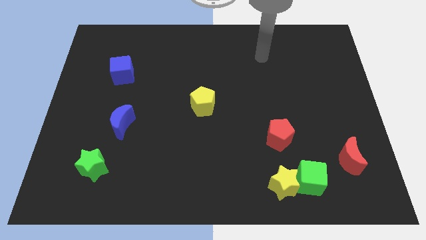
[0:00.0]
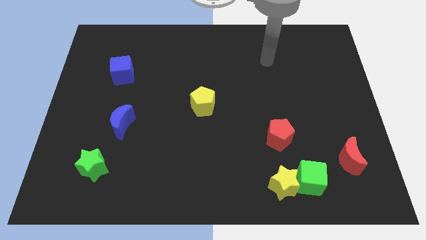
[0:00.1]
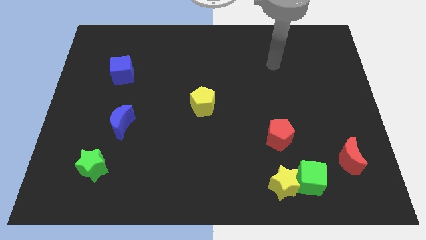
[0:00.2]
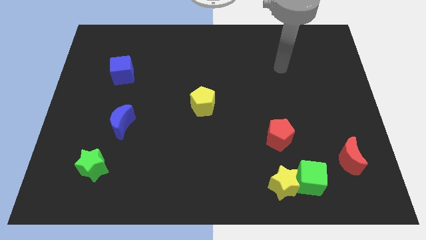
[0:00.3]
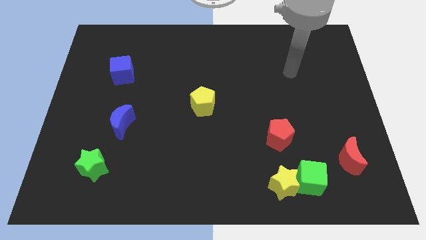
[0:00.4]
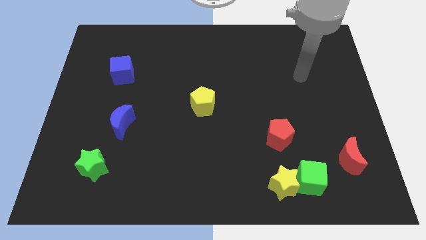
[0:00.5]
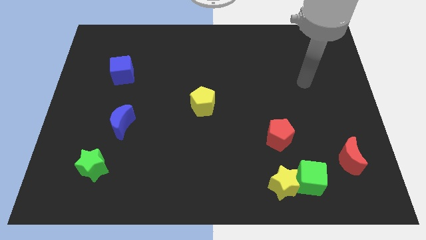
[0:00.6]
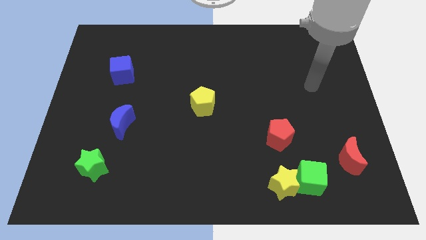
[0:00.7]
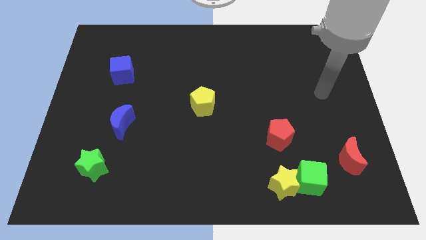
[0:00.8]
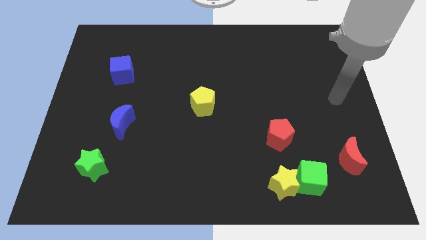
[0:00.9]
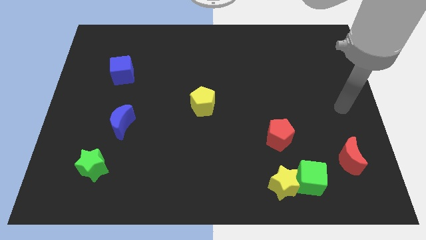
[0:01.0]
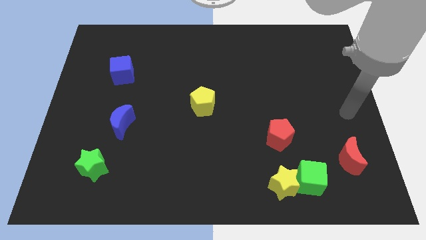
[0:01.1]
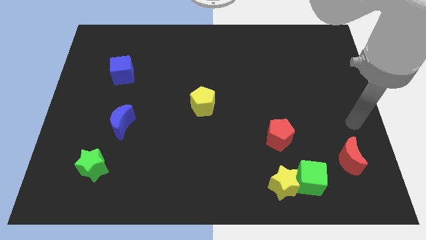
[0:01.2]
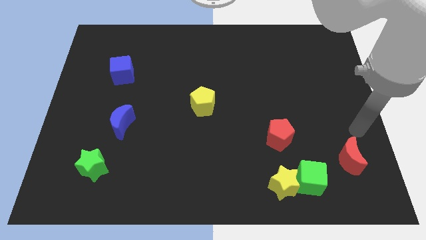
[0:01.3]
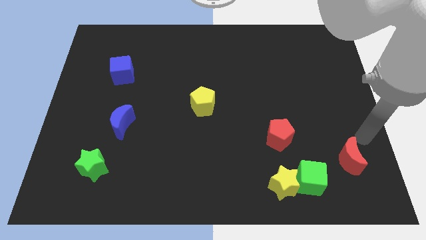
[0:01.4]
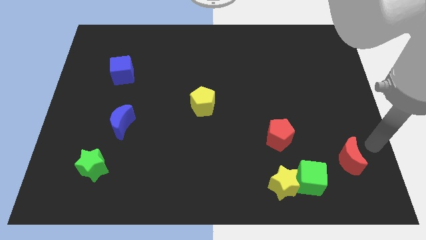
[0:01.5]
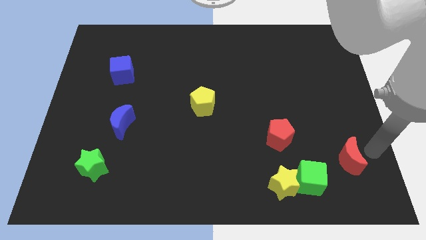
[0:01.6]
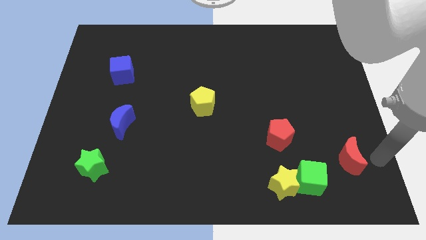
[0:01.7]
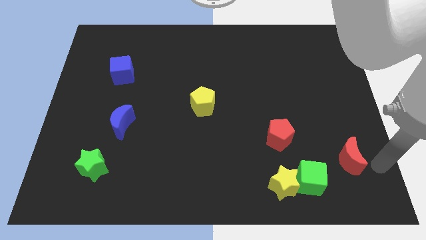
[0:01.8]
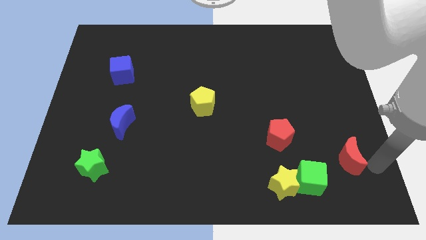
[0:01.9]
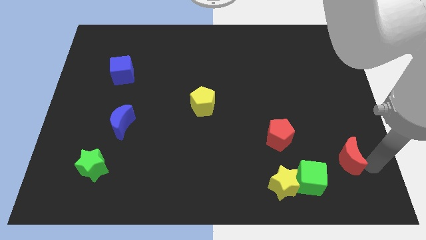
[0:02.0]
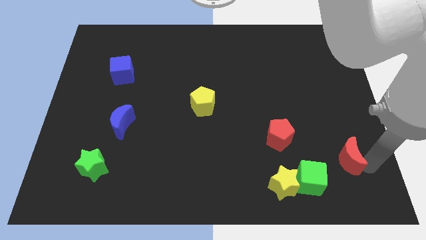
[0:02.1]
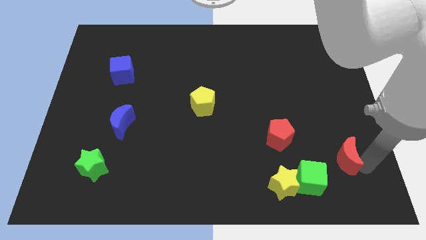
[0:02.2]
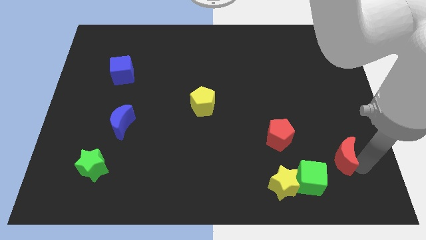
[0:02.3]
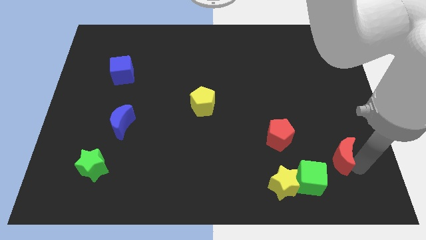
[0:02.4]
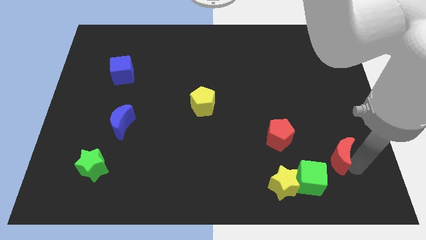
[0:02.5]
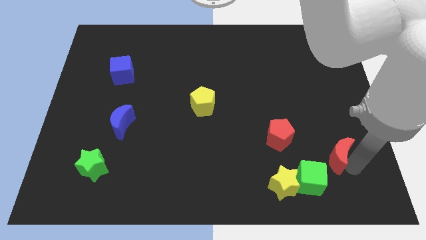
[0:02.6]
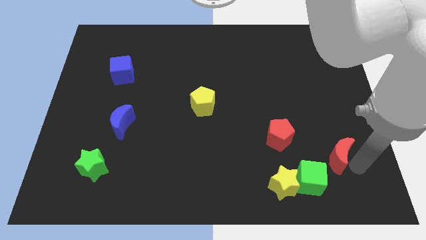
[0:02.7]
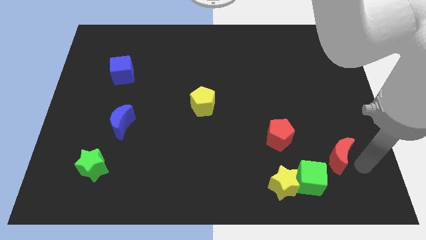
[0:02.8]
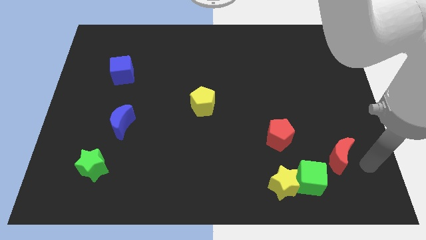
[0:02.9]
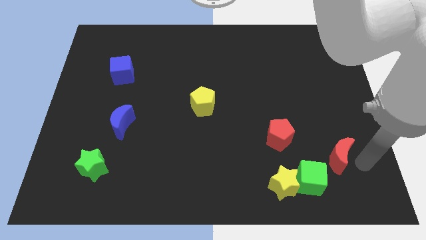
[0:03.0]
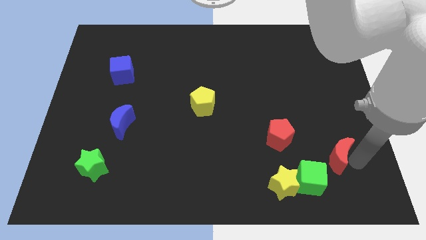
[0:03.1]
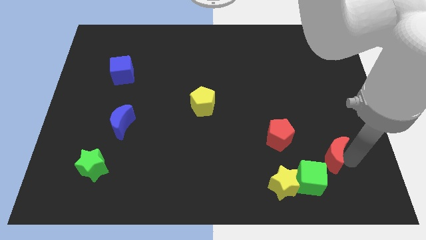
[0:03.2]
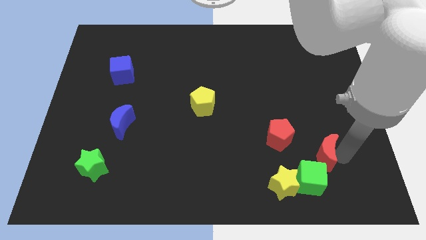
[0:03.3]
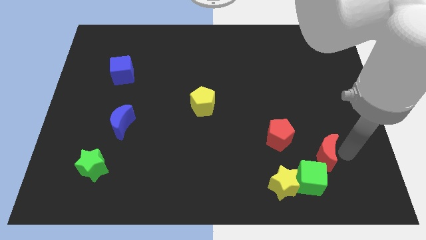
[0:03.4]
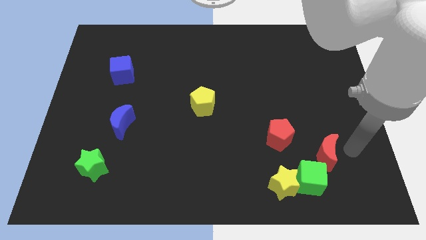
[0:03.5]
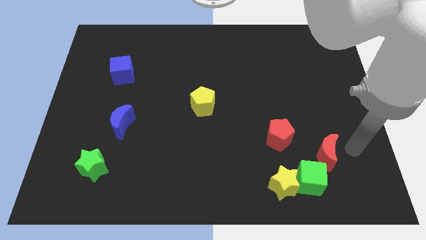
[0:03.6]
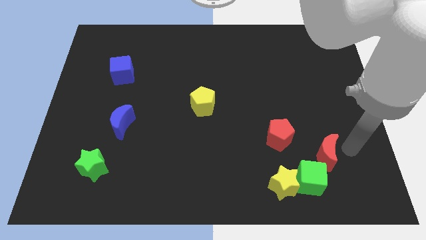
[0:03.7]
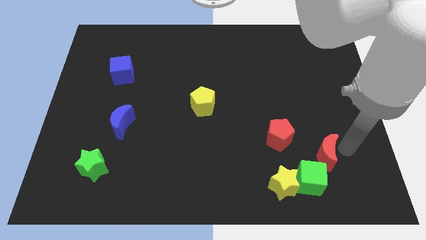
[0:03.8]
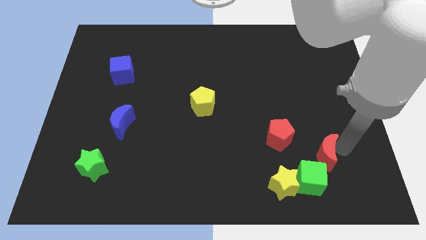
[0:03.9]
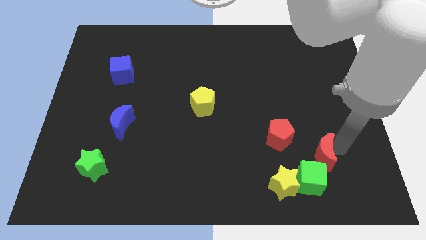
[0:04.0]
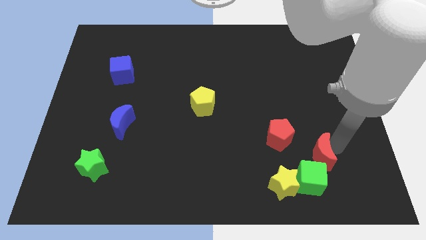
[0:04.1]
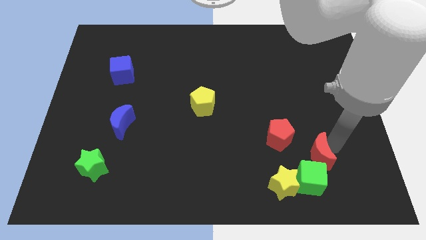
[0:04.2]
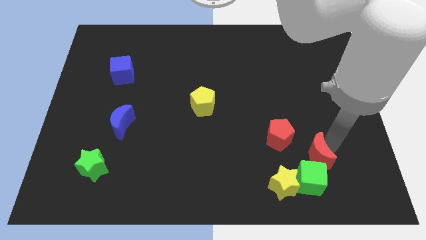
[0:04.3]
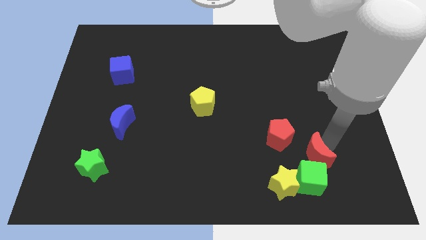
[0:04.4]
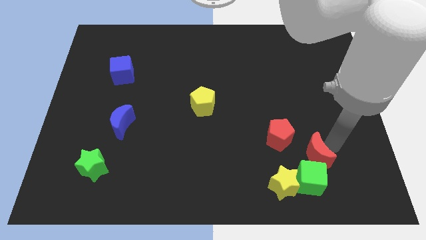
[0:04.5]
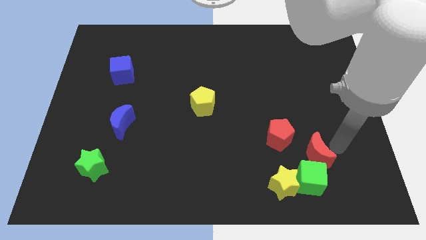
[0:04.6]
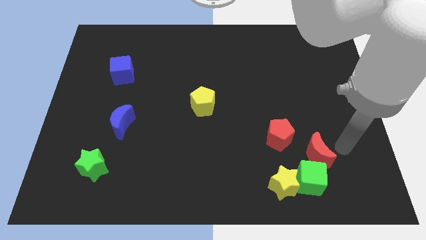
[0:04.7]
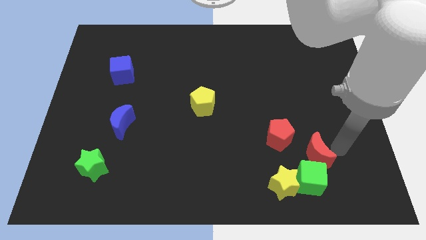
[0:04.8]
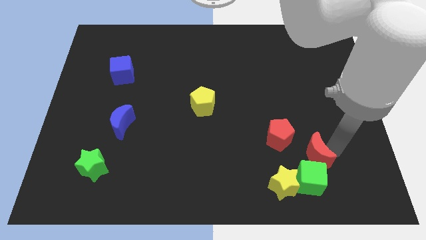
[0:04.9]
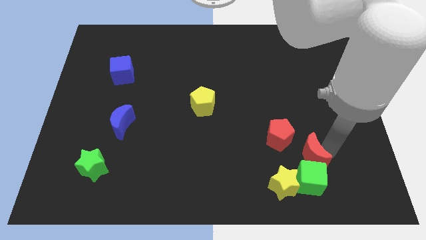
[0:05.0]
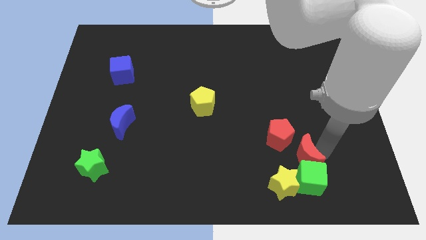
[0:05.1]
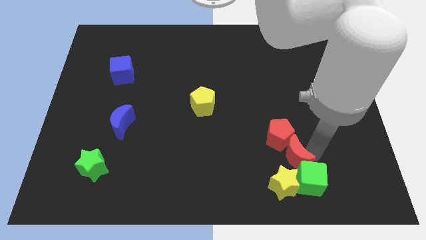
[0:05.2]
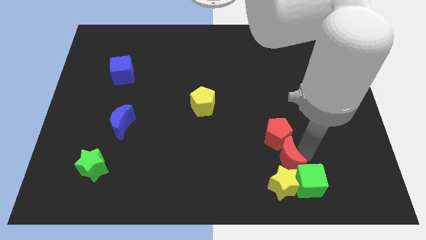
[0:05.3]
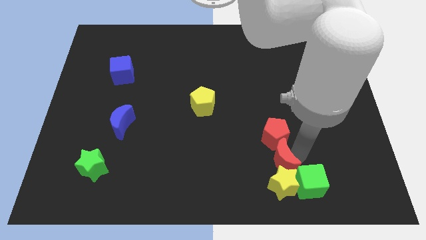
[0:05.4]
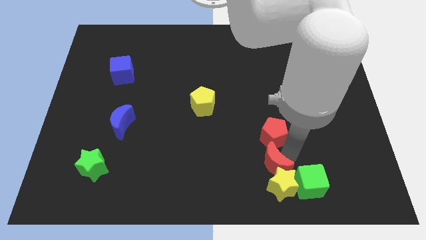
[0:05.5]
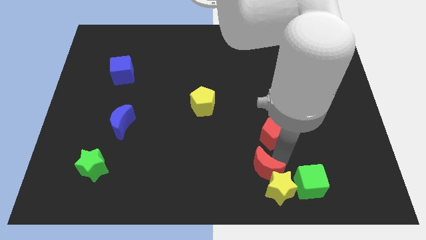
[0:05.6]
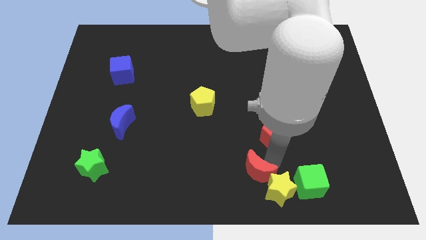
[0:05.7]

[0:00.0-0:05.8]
slide the red moon to the bottom side
